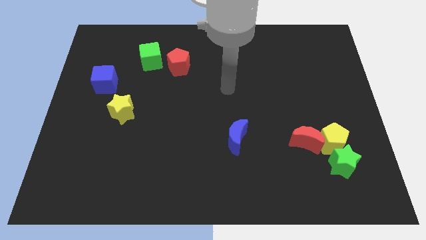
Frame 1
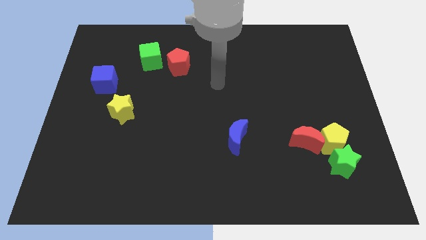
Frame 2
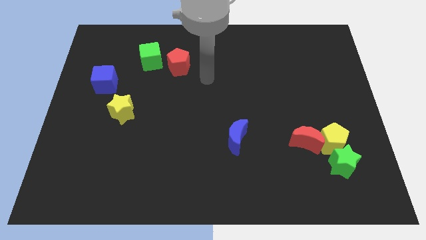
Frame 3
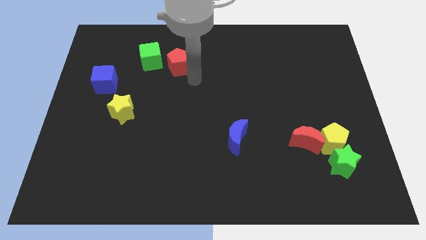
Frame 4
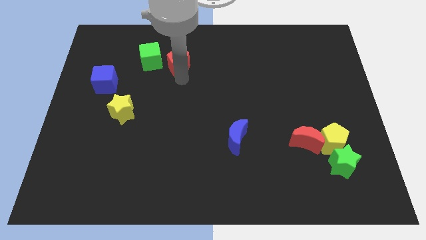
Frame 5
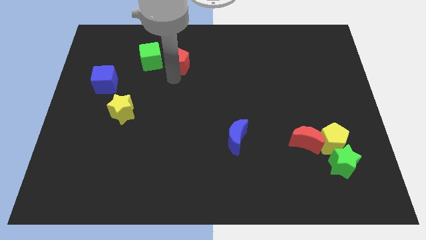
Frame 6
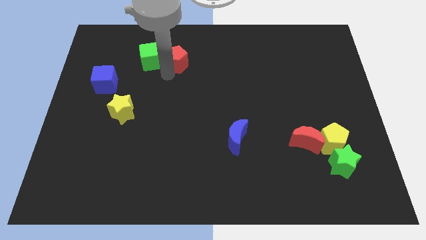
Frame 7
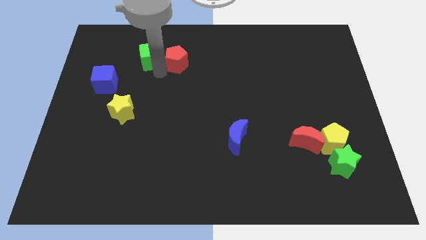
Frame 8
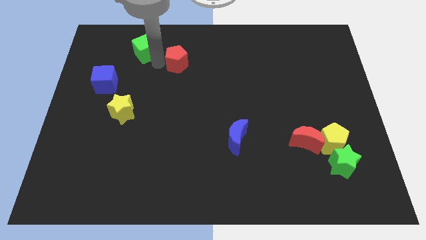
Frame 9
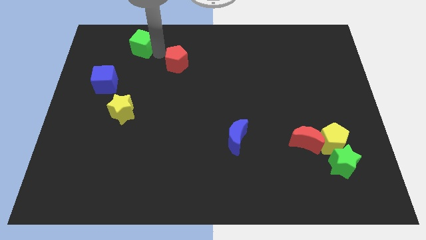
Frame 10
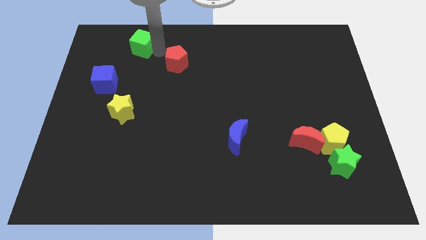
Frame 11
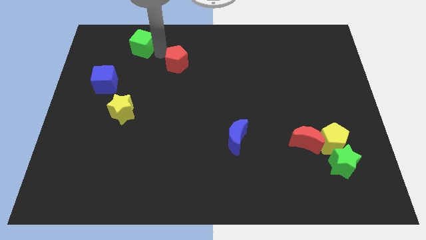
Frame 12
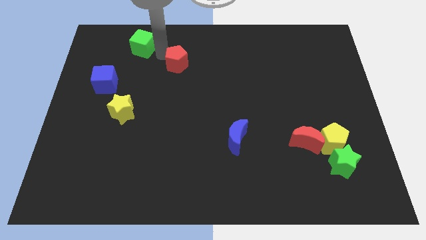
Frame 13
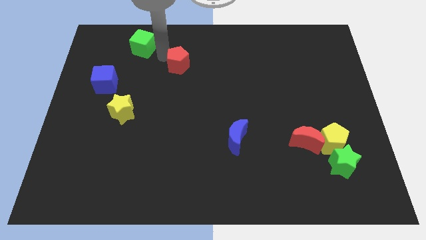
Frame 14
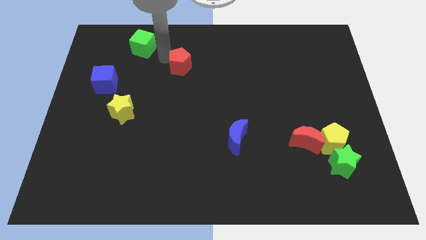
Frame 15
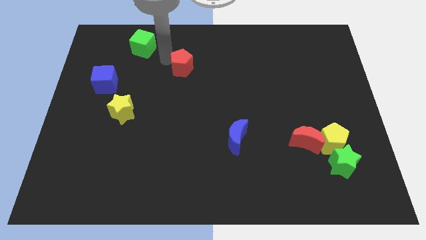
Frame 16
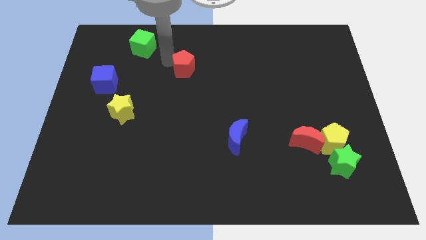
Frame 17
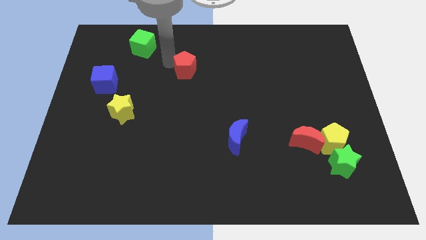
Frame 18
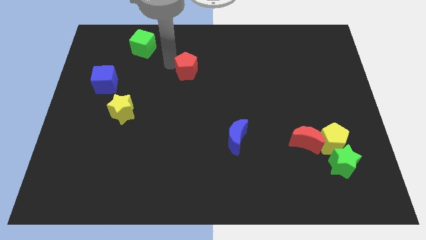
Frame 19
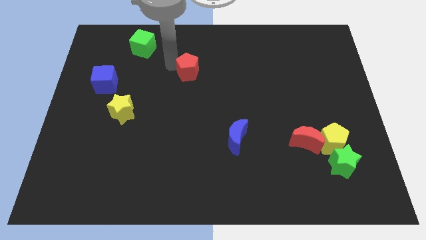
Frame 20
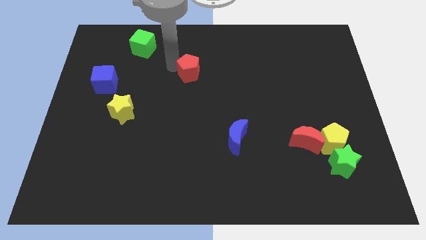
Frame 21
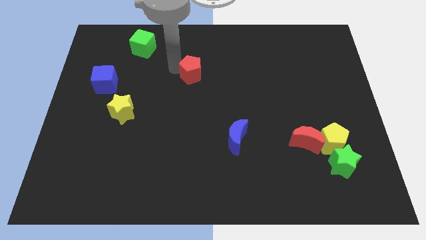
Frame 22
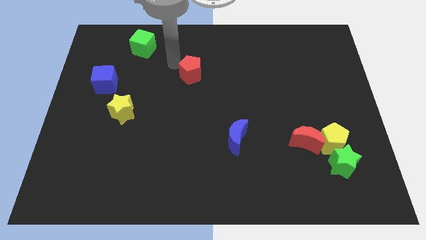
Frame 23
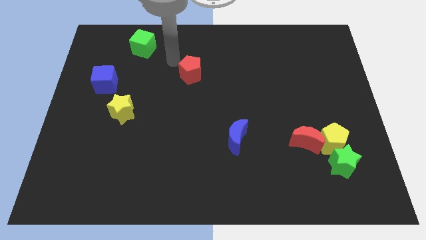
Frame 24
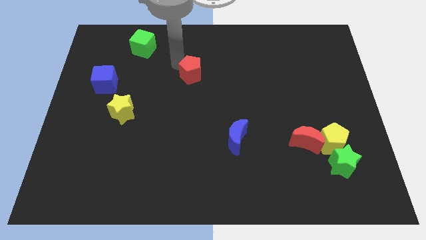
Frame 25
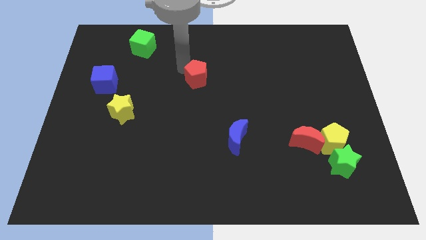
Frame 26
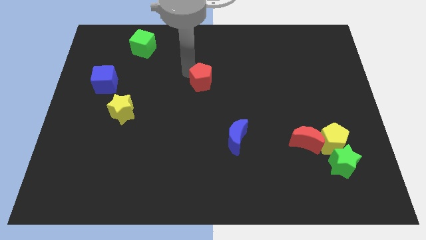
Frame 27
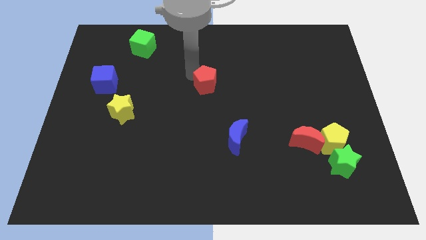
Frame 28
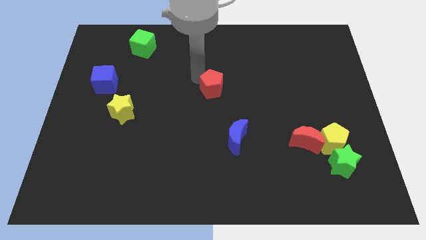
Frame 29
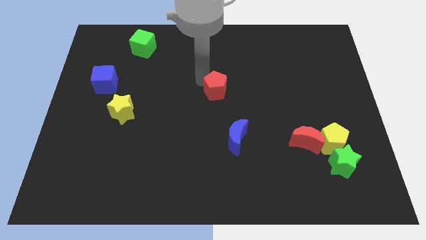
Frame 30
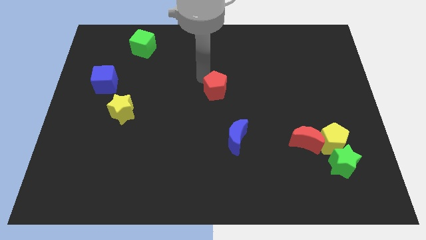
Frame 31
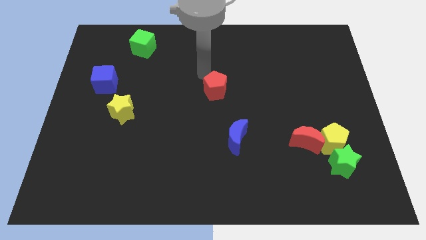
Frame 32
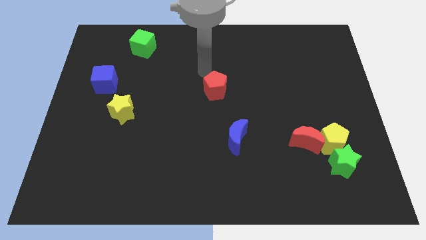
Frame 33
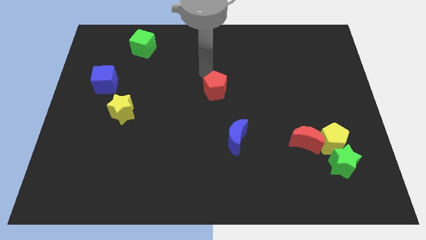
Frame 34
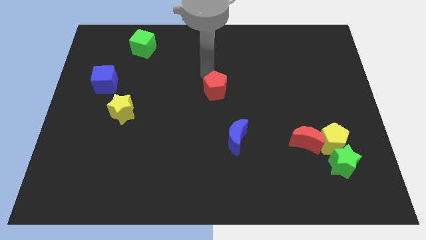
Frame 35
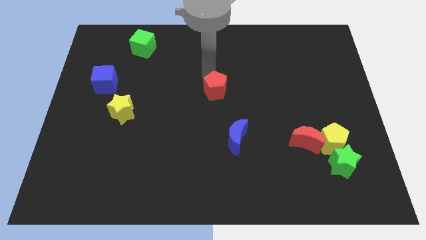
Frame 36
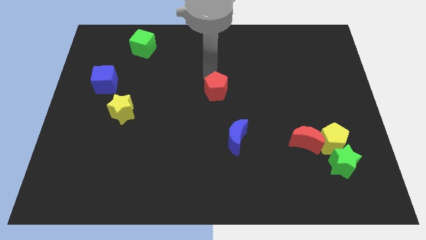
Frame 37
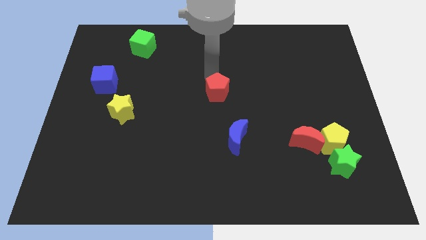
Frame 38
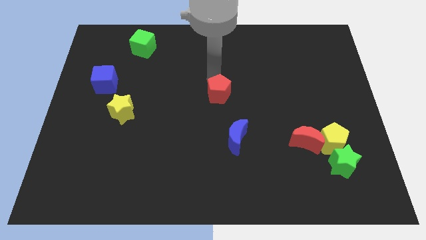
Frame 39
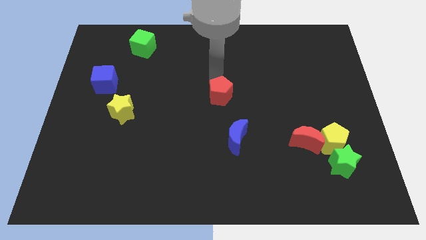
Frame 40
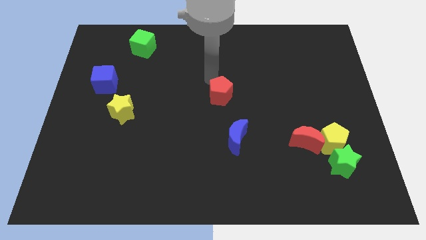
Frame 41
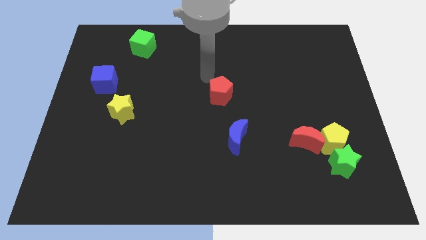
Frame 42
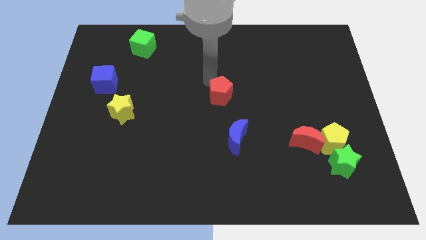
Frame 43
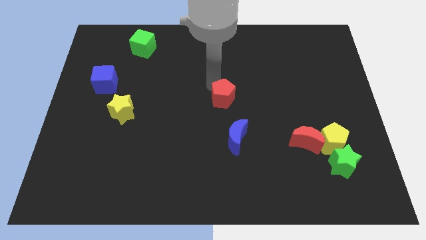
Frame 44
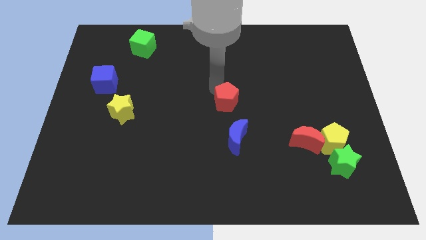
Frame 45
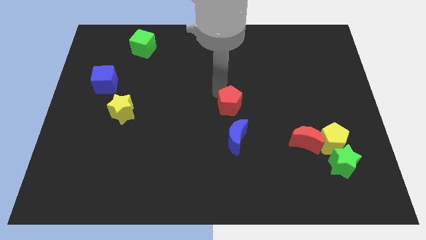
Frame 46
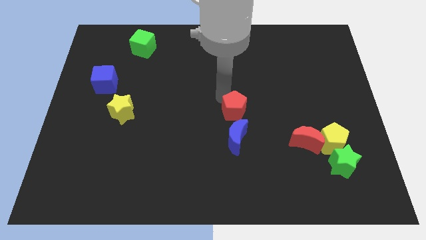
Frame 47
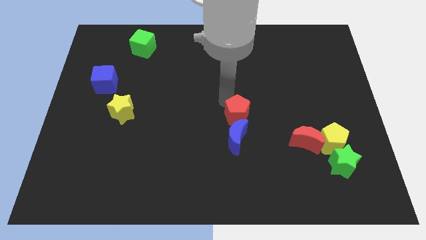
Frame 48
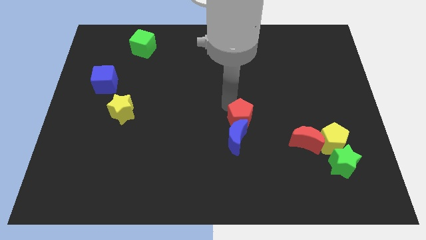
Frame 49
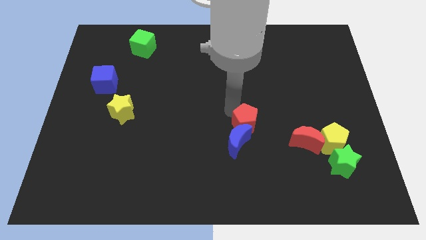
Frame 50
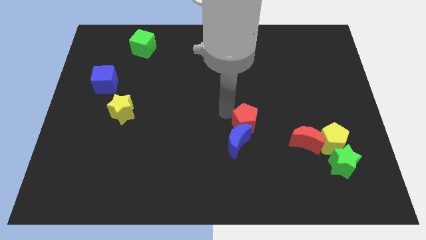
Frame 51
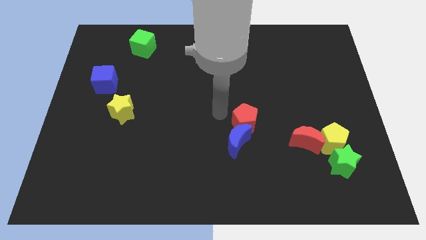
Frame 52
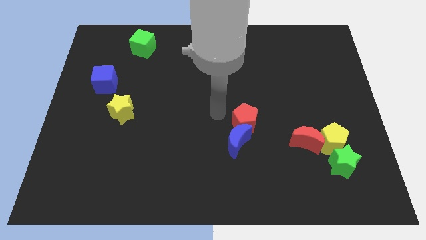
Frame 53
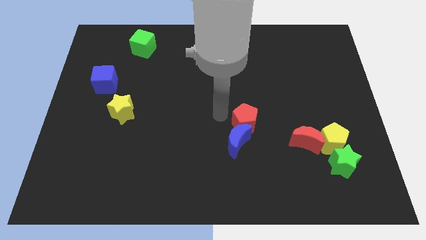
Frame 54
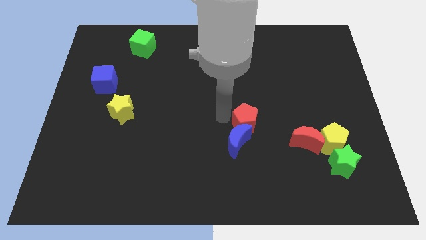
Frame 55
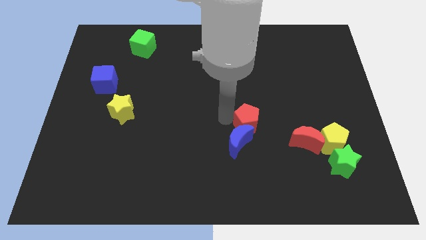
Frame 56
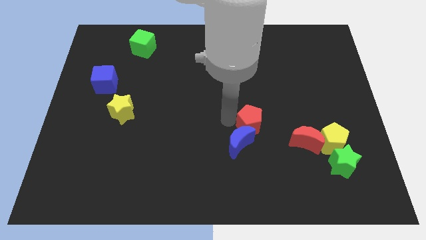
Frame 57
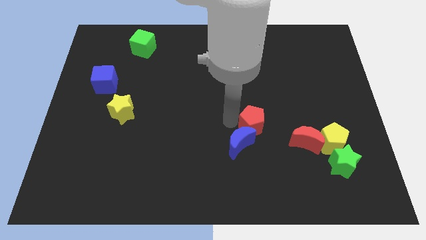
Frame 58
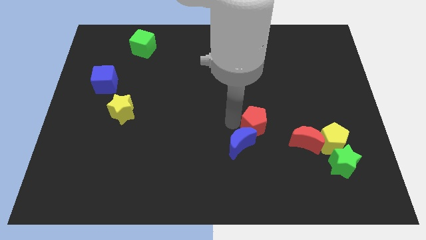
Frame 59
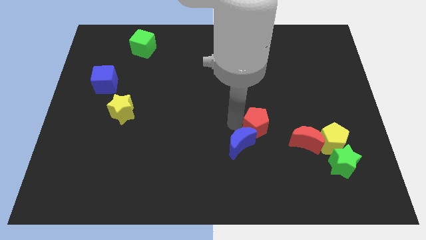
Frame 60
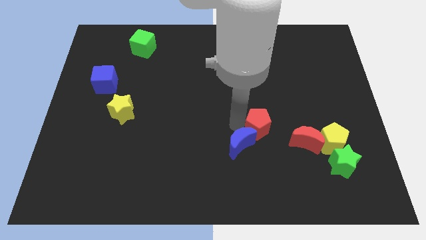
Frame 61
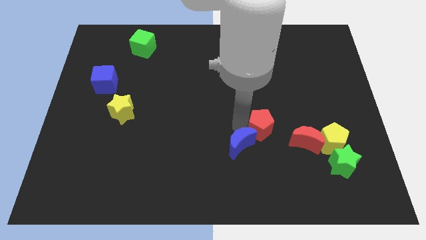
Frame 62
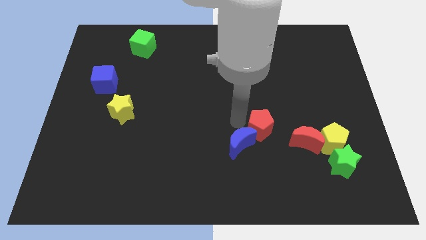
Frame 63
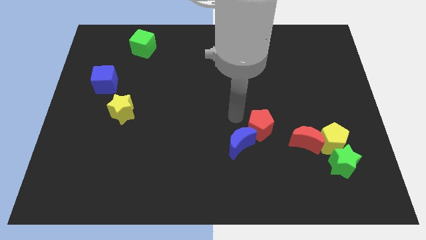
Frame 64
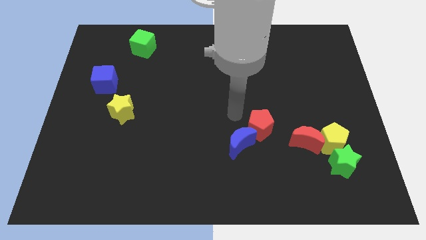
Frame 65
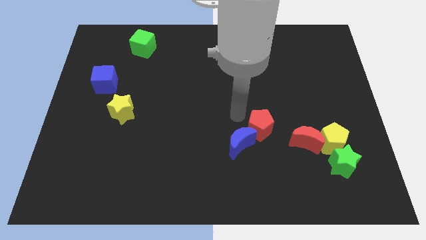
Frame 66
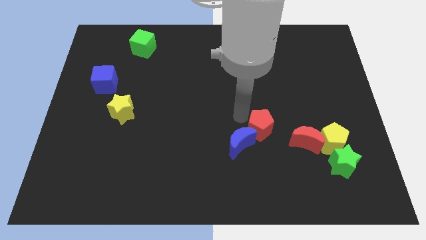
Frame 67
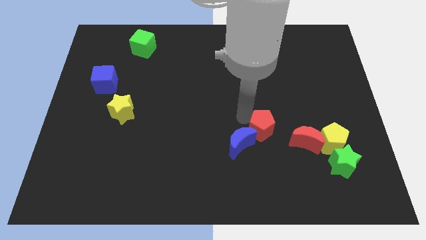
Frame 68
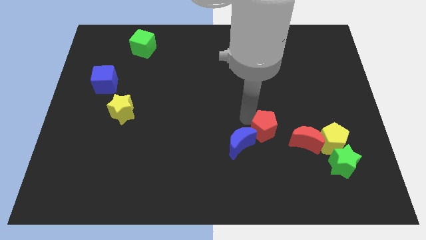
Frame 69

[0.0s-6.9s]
put the red pentagon left of the yellow pentagon
